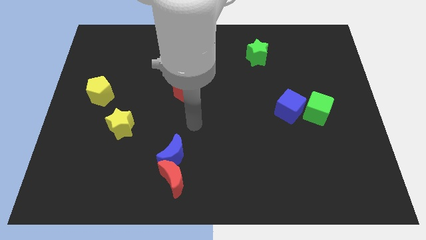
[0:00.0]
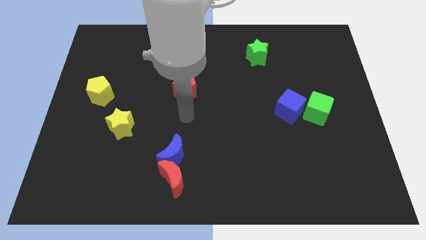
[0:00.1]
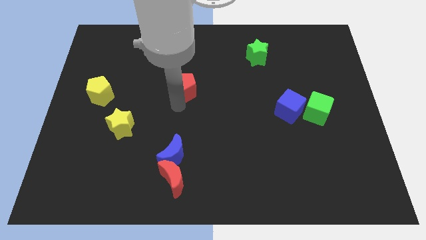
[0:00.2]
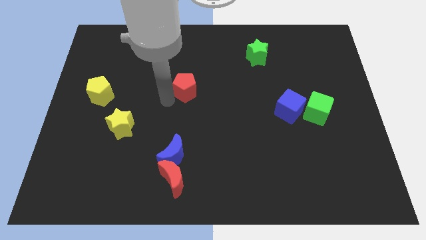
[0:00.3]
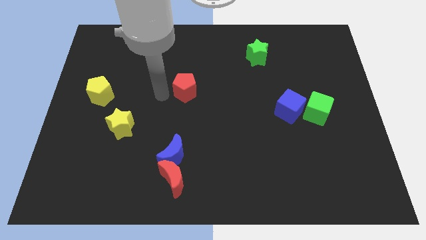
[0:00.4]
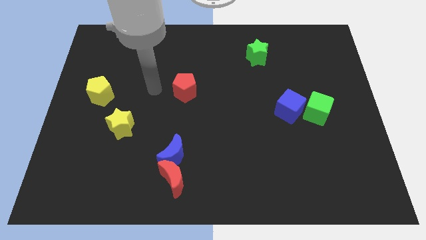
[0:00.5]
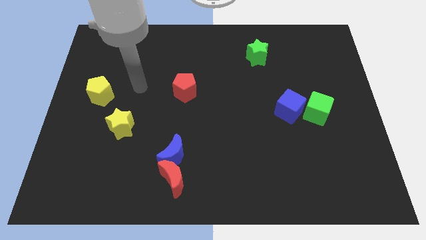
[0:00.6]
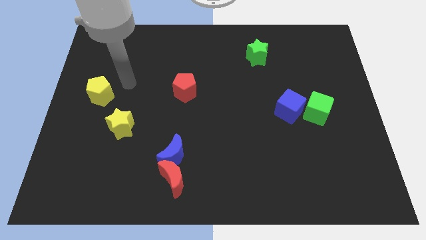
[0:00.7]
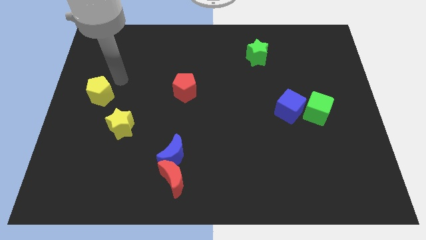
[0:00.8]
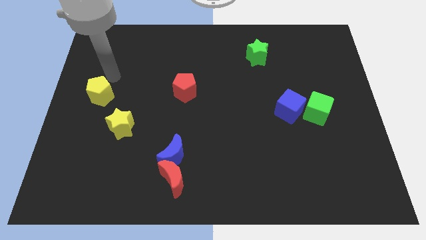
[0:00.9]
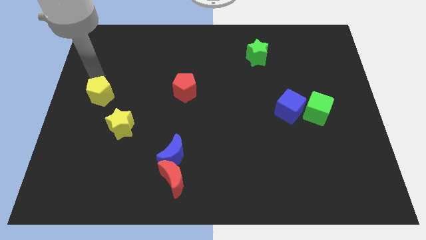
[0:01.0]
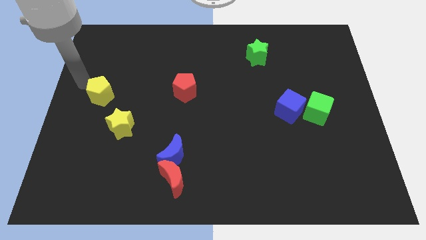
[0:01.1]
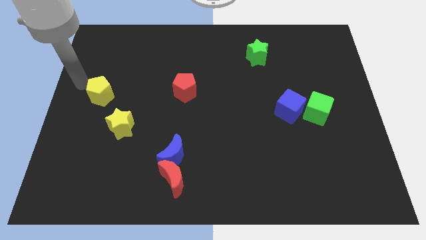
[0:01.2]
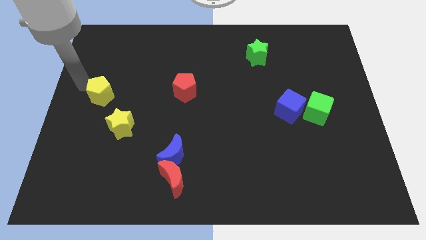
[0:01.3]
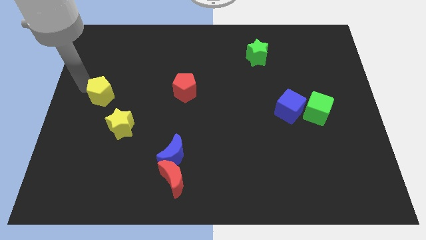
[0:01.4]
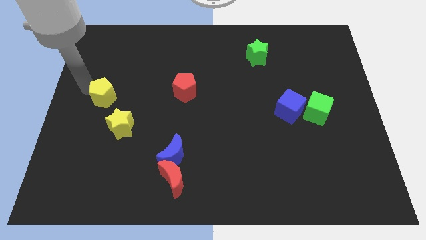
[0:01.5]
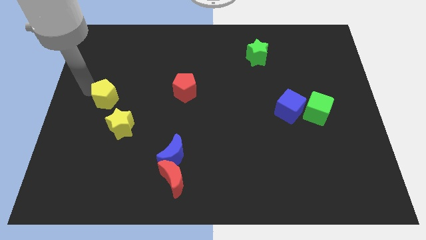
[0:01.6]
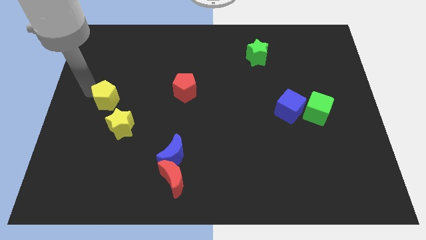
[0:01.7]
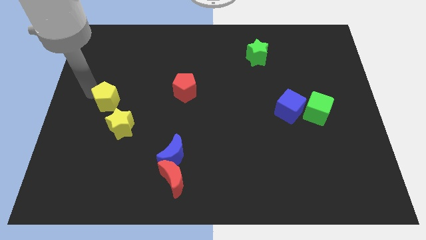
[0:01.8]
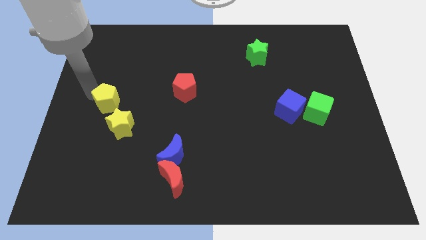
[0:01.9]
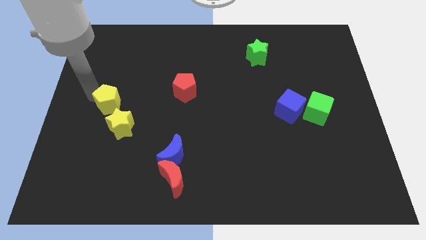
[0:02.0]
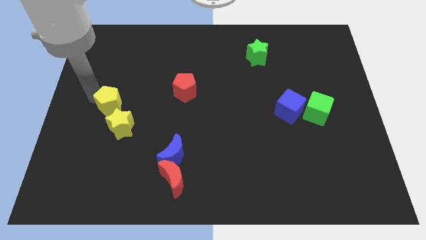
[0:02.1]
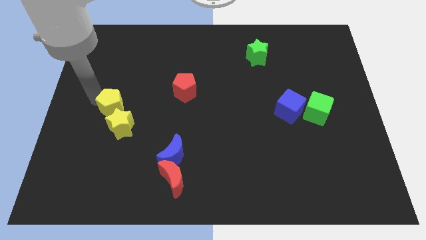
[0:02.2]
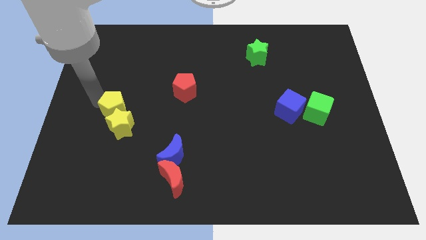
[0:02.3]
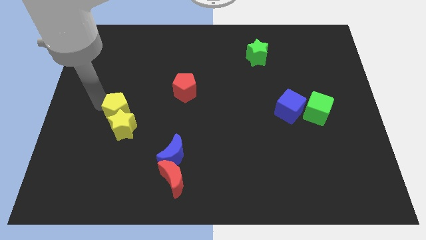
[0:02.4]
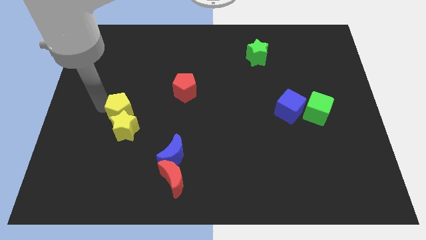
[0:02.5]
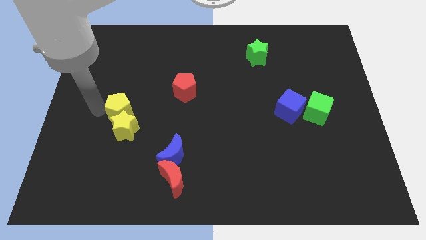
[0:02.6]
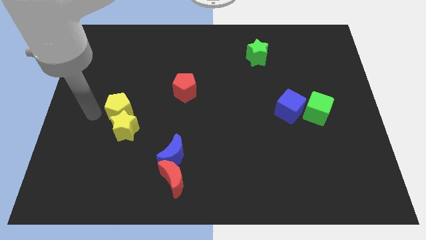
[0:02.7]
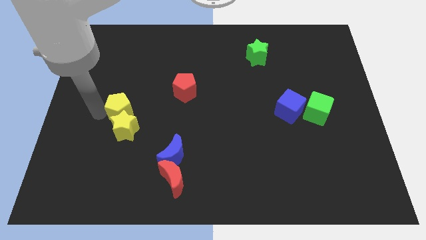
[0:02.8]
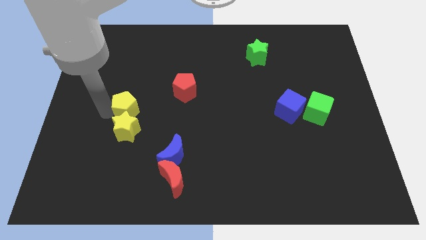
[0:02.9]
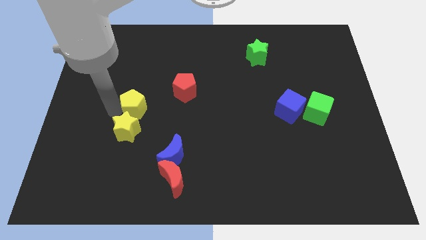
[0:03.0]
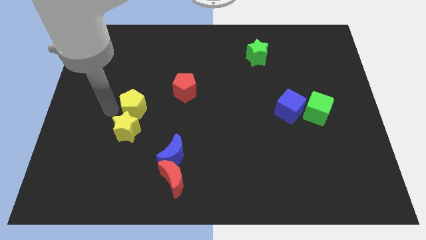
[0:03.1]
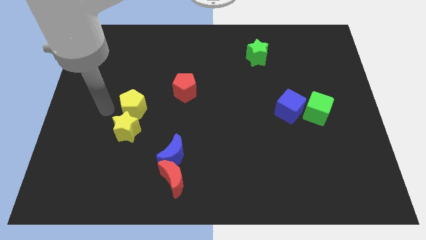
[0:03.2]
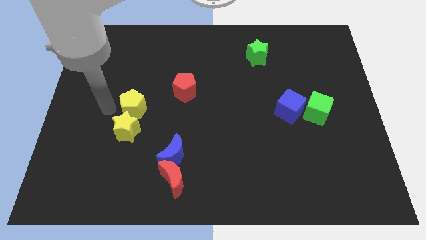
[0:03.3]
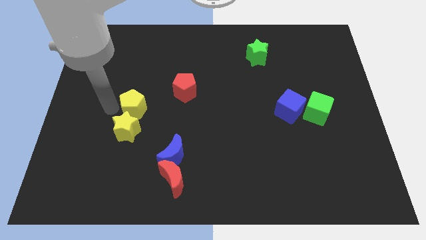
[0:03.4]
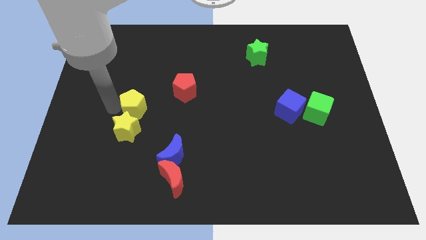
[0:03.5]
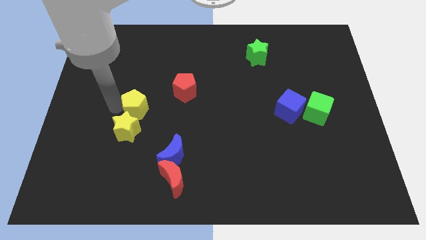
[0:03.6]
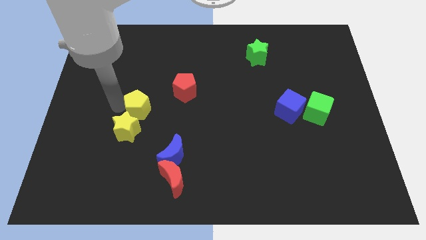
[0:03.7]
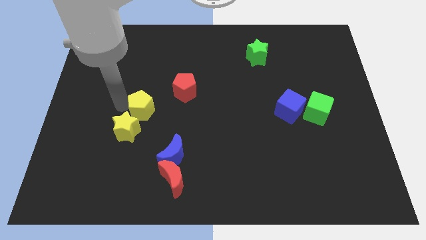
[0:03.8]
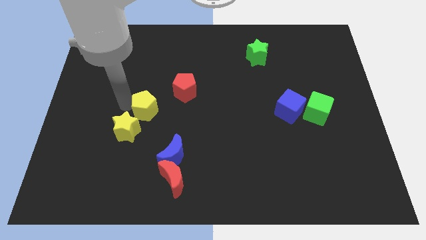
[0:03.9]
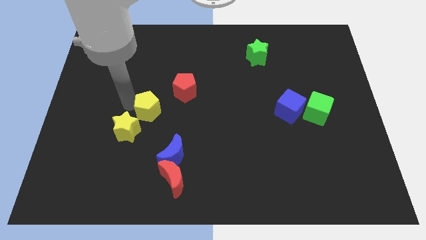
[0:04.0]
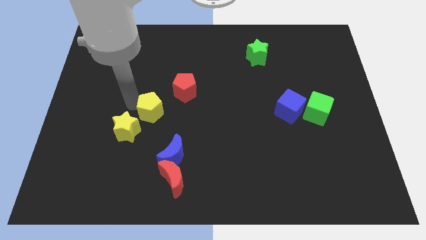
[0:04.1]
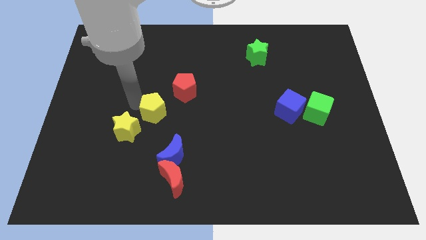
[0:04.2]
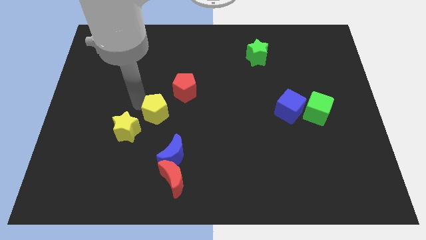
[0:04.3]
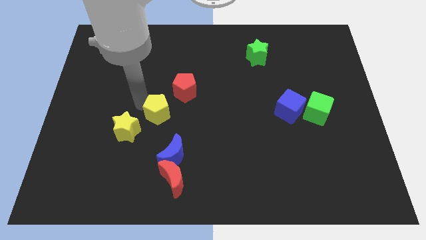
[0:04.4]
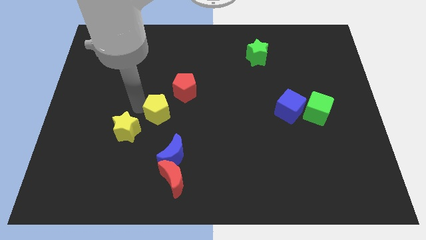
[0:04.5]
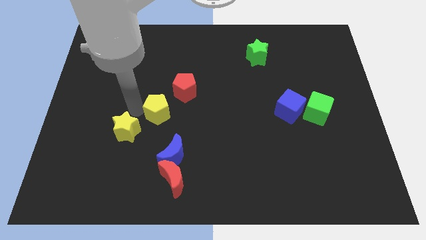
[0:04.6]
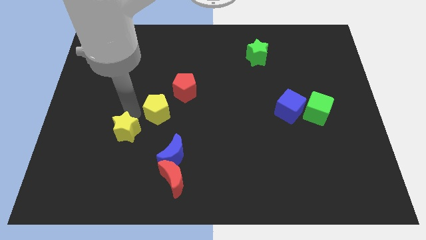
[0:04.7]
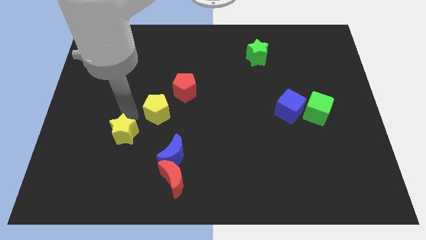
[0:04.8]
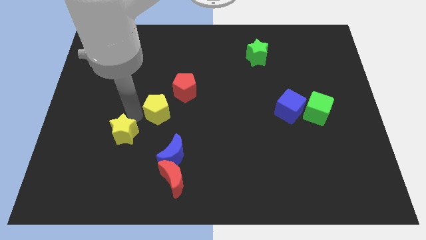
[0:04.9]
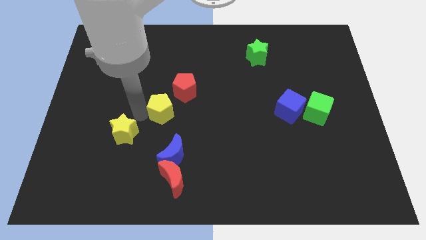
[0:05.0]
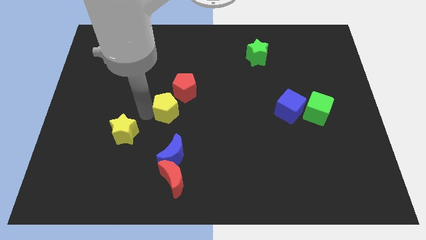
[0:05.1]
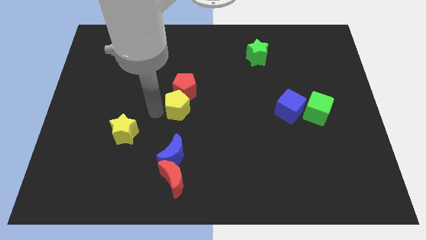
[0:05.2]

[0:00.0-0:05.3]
push the yellow pentagon to the bottom right side of the red pentagon

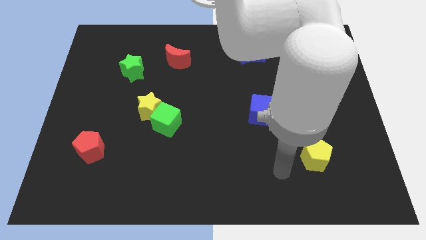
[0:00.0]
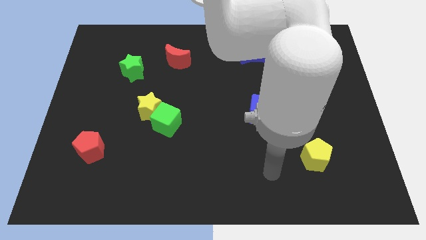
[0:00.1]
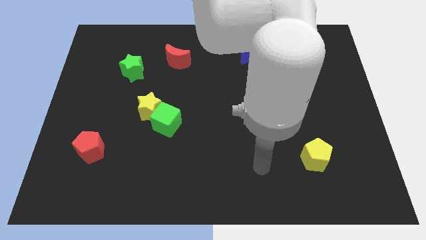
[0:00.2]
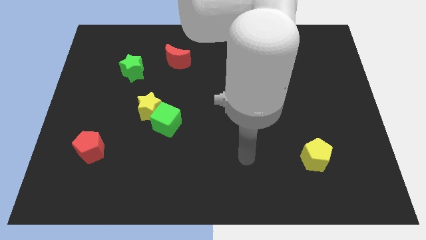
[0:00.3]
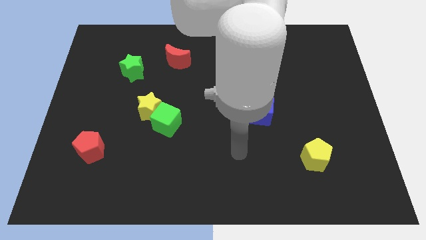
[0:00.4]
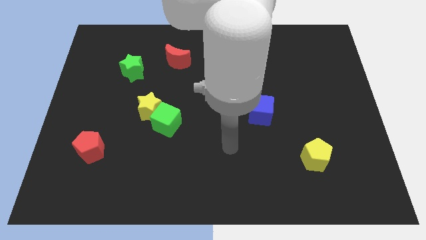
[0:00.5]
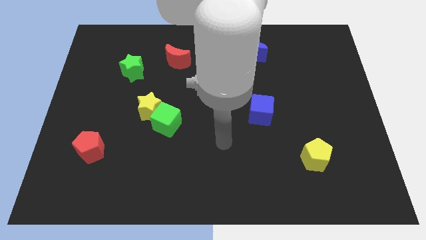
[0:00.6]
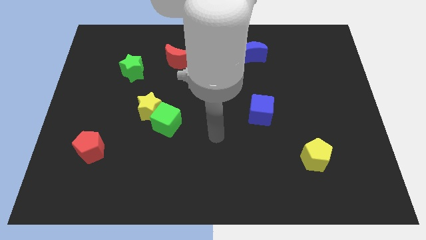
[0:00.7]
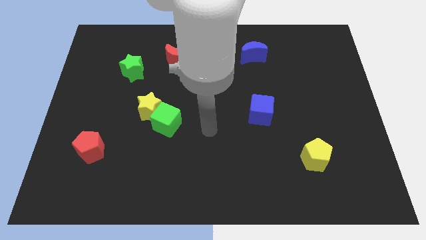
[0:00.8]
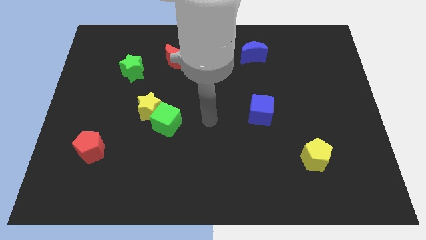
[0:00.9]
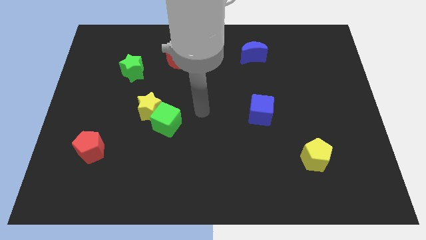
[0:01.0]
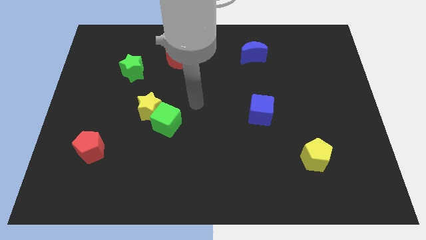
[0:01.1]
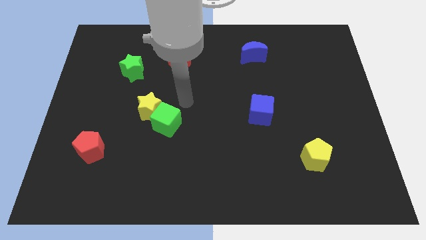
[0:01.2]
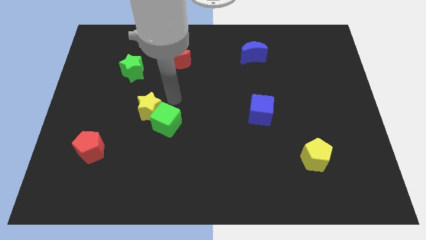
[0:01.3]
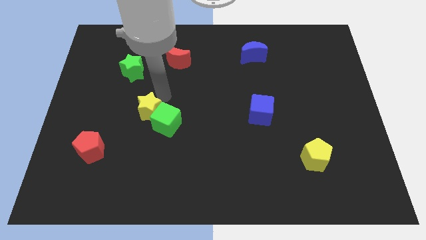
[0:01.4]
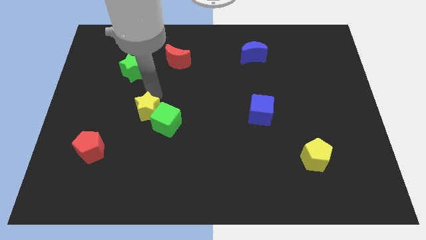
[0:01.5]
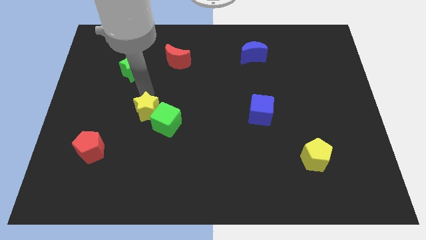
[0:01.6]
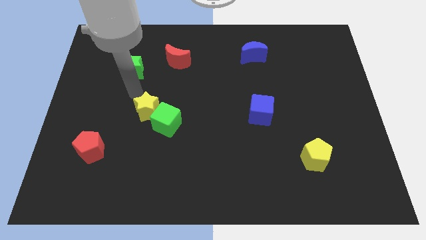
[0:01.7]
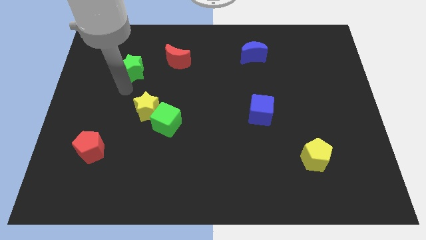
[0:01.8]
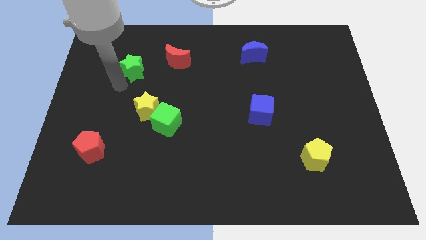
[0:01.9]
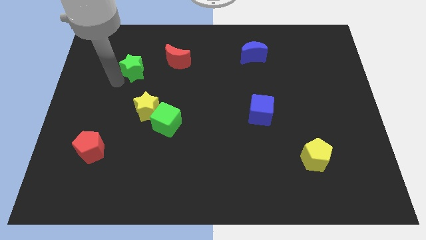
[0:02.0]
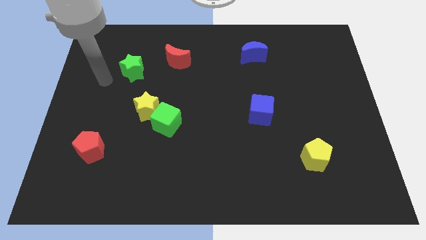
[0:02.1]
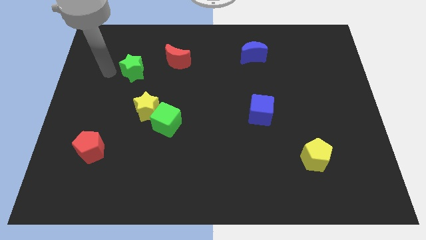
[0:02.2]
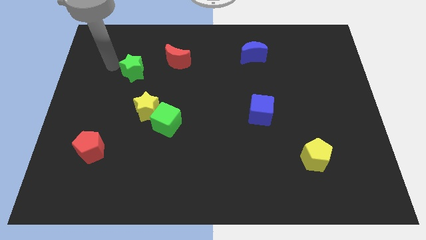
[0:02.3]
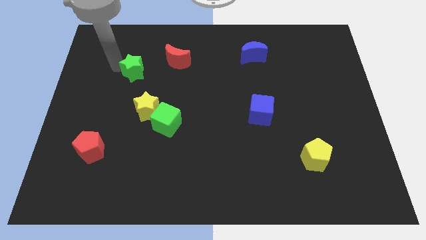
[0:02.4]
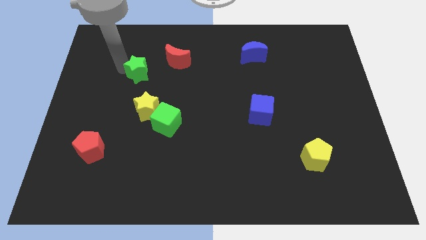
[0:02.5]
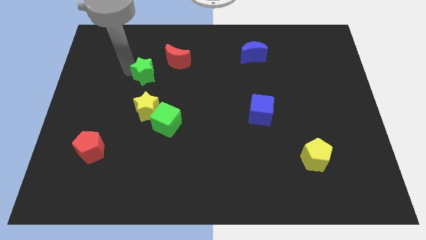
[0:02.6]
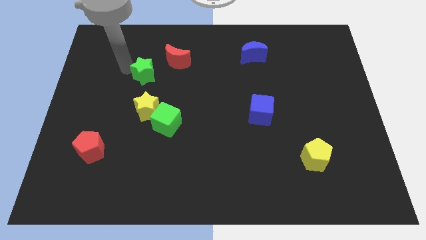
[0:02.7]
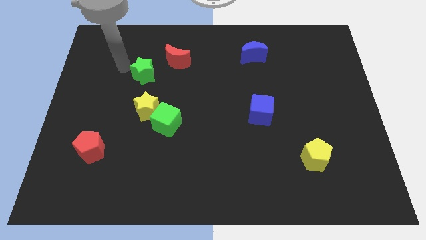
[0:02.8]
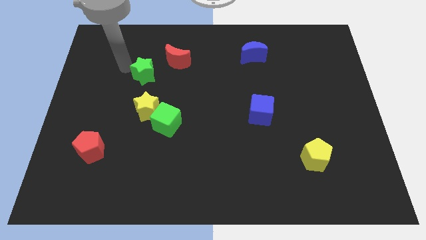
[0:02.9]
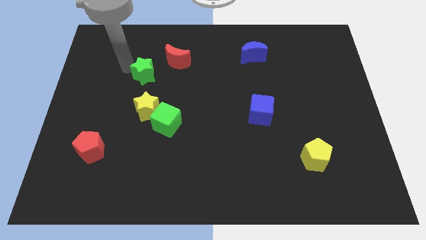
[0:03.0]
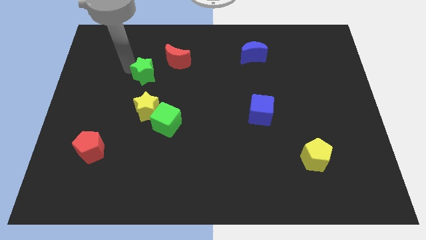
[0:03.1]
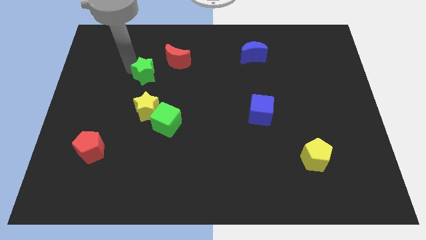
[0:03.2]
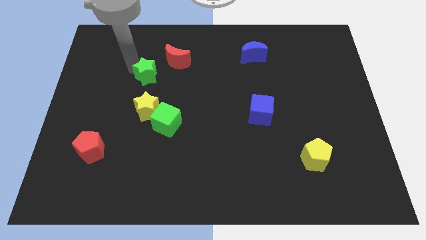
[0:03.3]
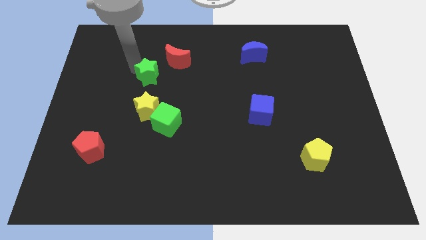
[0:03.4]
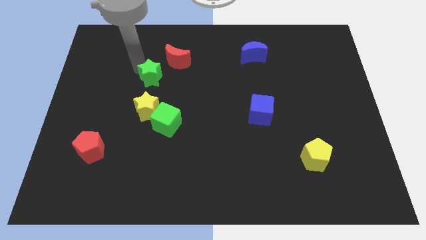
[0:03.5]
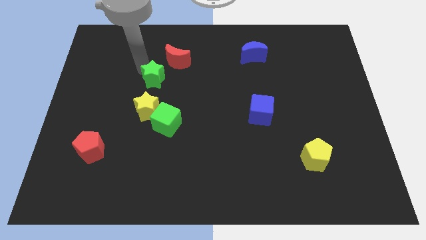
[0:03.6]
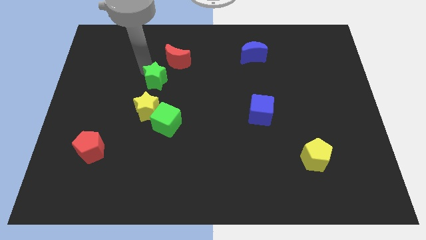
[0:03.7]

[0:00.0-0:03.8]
slide the green star below the red moon
